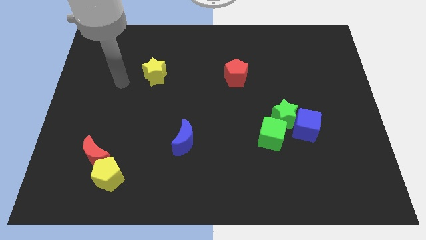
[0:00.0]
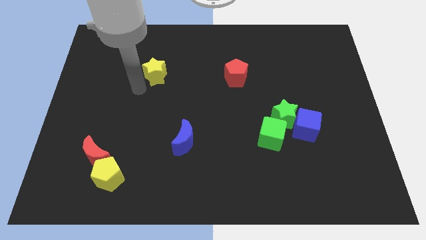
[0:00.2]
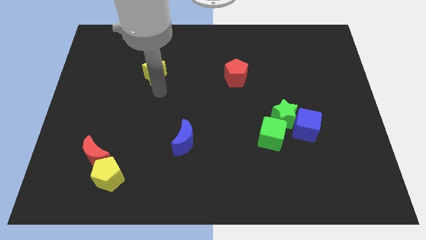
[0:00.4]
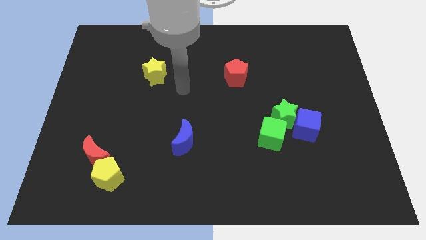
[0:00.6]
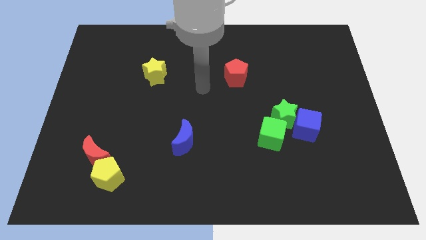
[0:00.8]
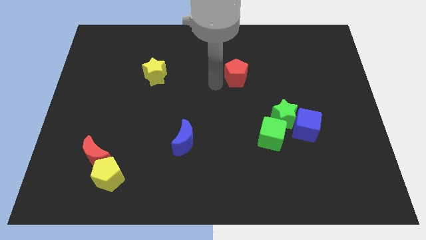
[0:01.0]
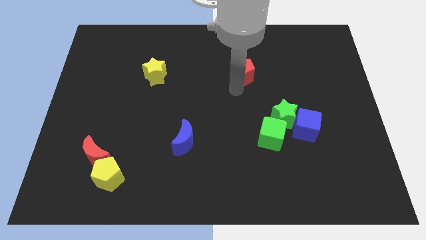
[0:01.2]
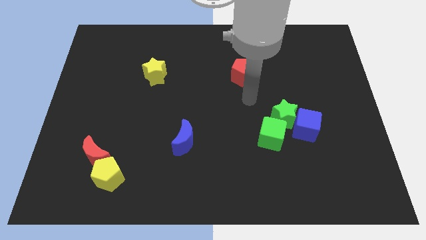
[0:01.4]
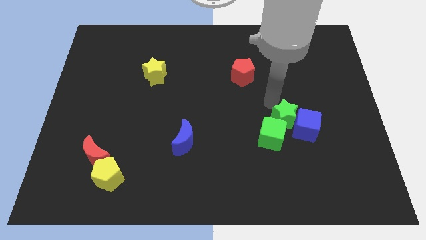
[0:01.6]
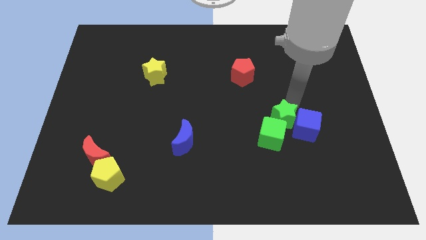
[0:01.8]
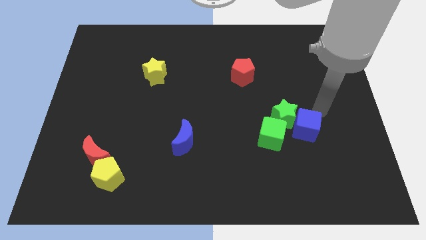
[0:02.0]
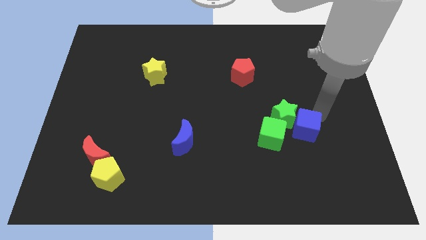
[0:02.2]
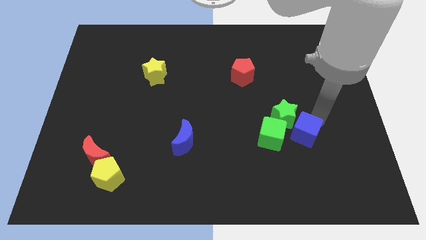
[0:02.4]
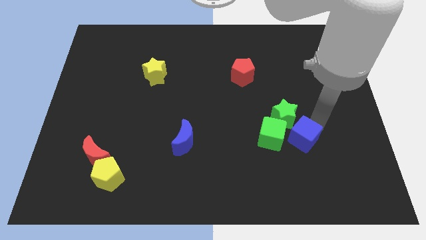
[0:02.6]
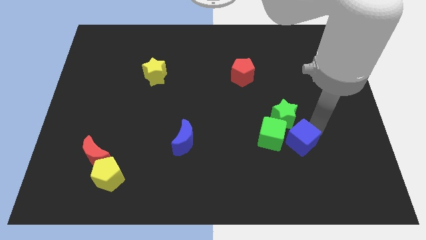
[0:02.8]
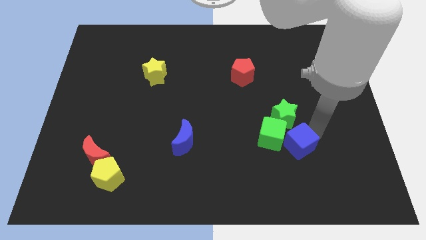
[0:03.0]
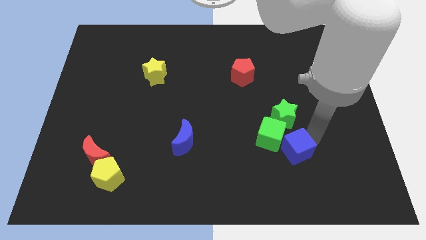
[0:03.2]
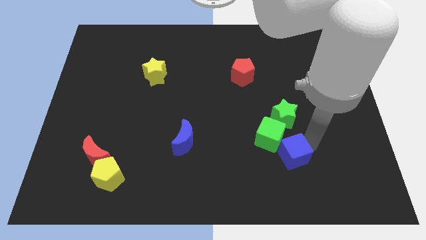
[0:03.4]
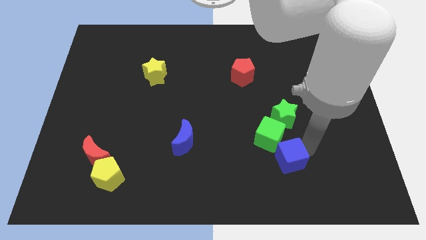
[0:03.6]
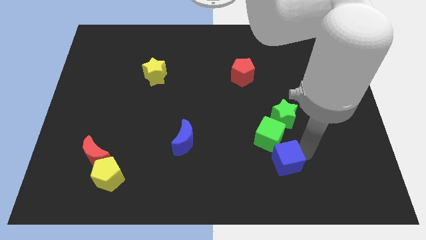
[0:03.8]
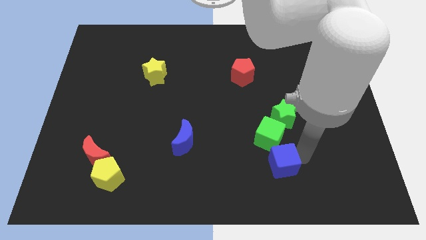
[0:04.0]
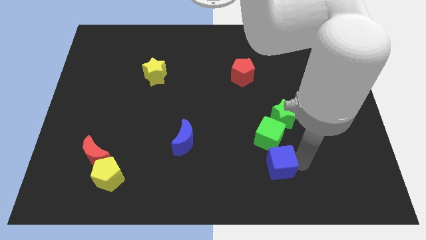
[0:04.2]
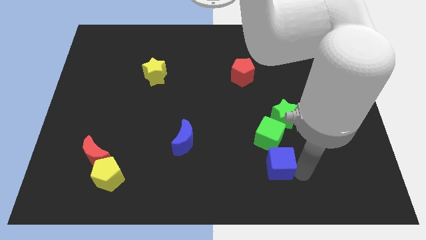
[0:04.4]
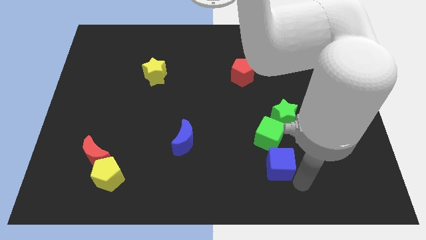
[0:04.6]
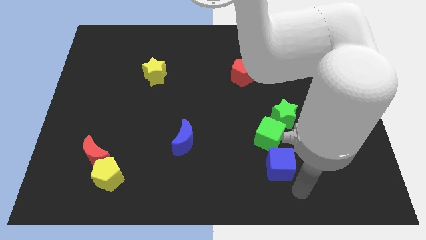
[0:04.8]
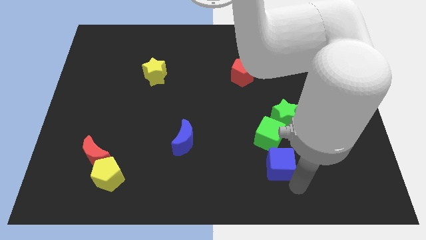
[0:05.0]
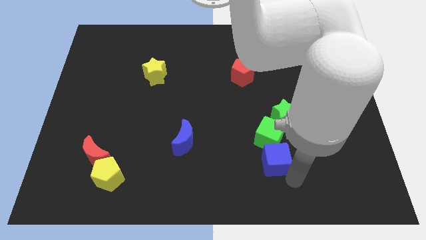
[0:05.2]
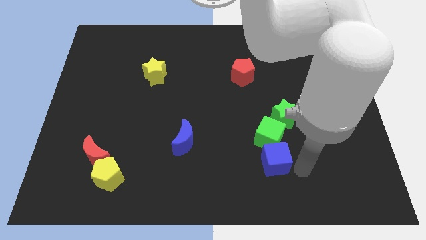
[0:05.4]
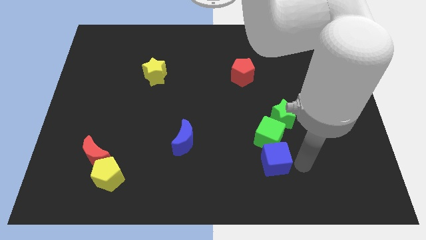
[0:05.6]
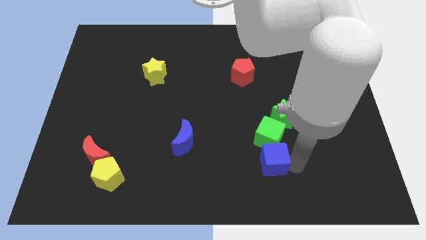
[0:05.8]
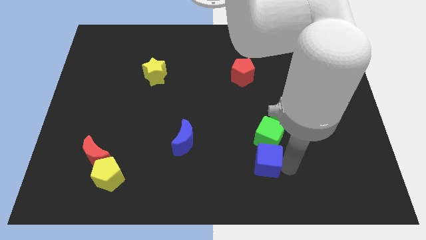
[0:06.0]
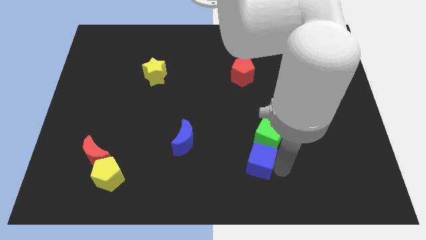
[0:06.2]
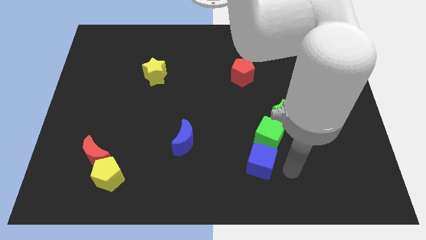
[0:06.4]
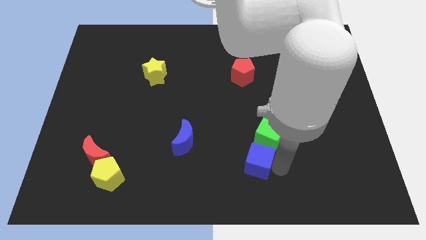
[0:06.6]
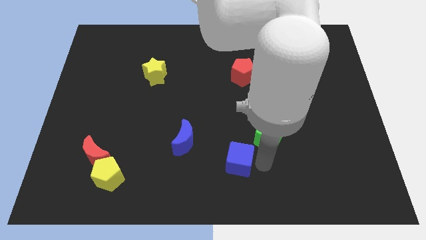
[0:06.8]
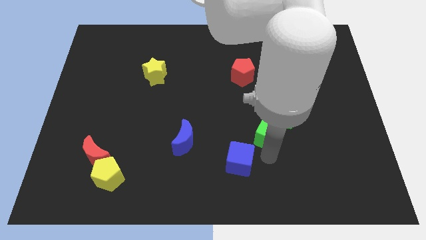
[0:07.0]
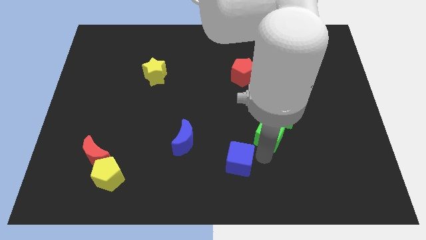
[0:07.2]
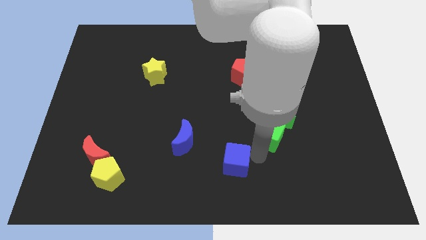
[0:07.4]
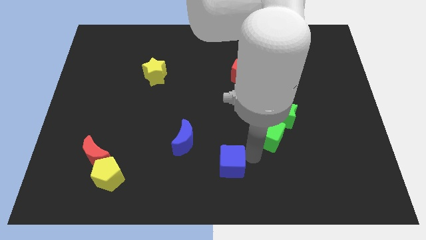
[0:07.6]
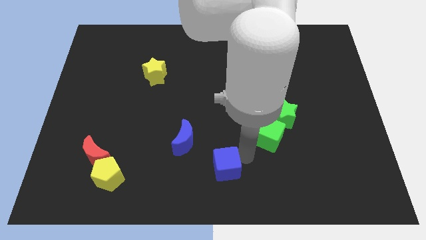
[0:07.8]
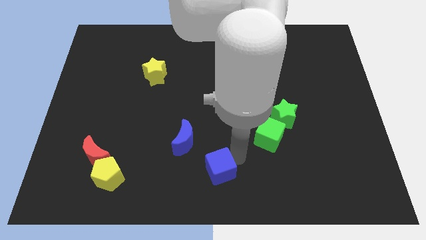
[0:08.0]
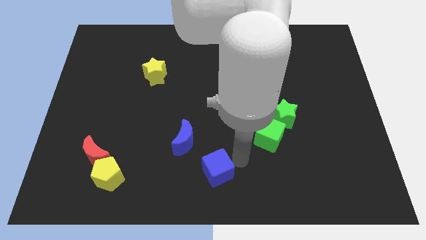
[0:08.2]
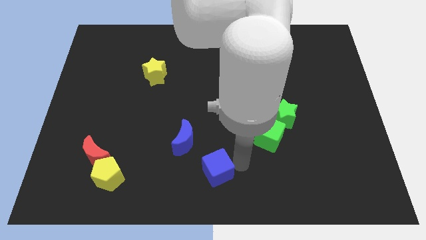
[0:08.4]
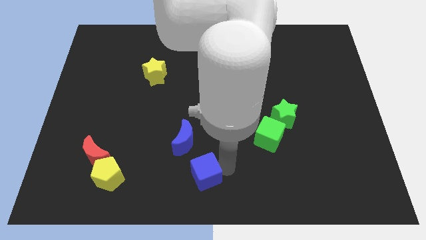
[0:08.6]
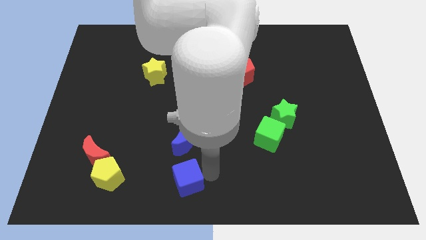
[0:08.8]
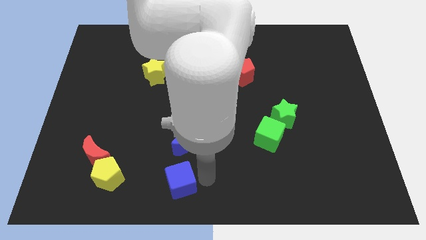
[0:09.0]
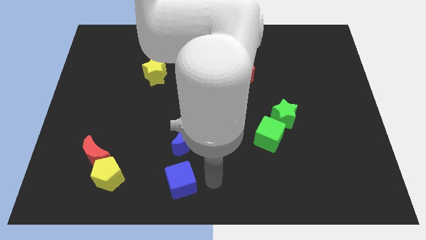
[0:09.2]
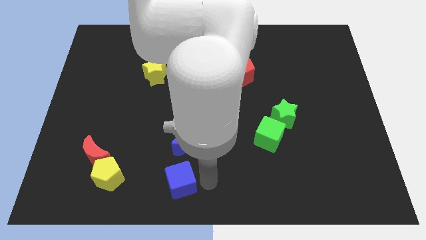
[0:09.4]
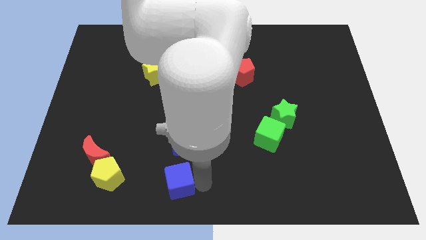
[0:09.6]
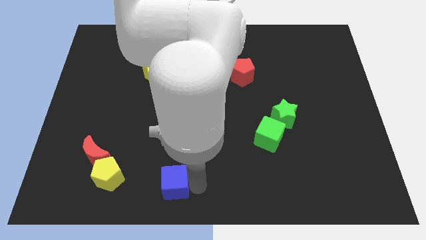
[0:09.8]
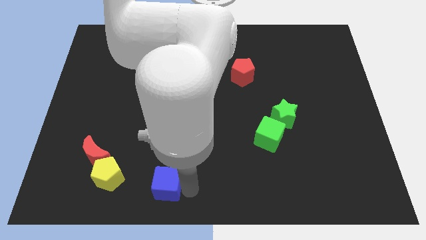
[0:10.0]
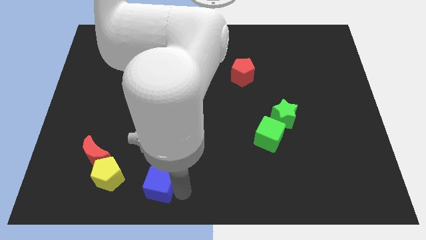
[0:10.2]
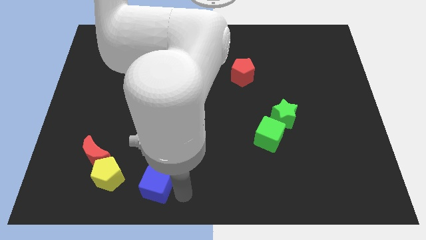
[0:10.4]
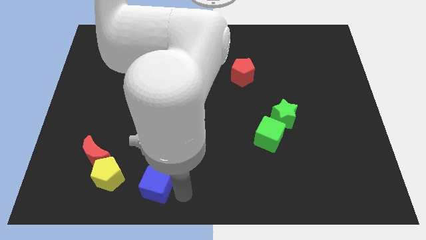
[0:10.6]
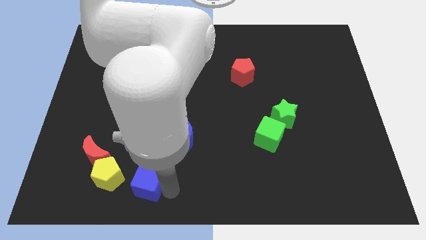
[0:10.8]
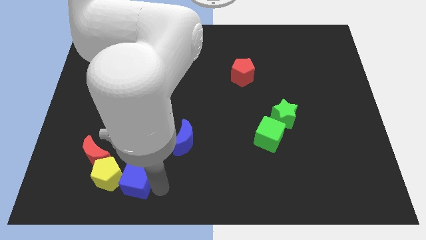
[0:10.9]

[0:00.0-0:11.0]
put the blue cube next to the yellow pentagon

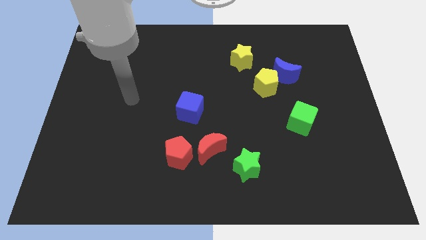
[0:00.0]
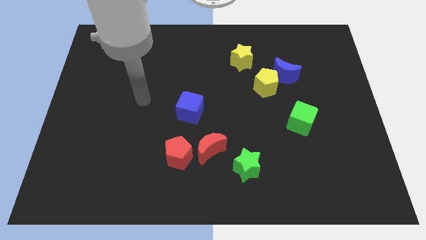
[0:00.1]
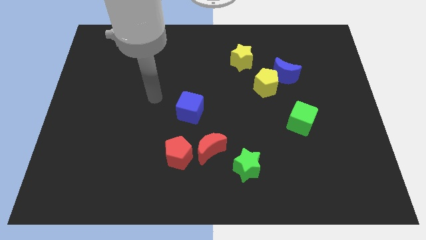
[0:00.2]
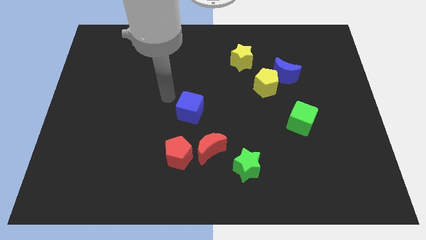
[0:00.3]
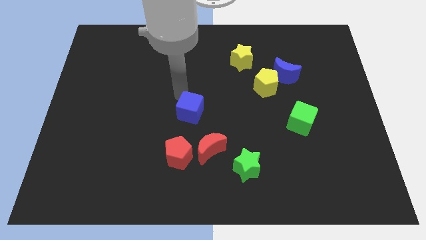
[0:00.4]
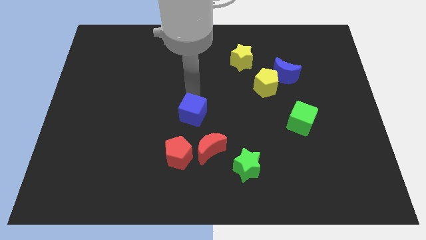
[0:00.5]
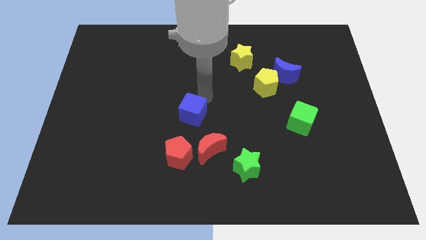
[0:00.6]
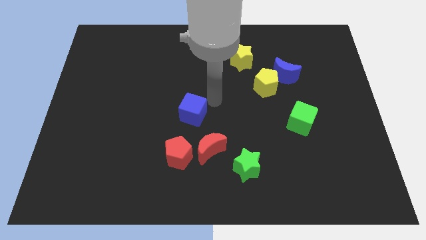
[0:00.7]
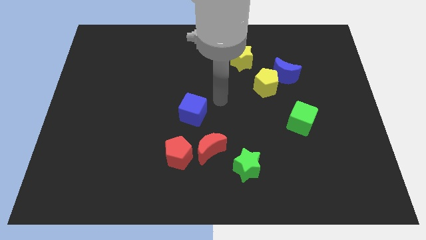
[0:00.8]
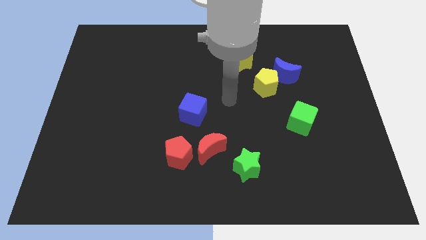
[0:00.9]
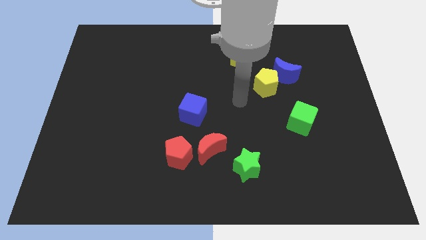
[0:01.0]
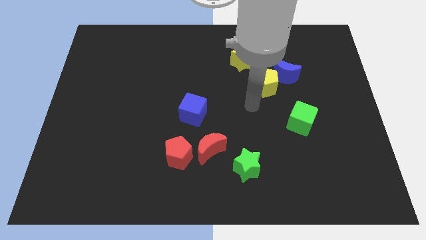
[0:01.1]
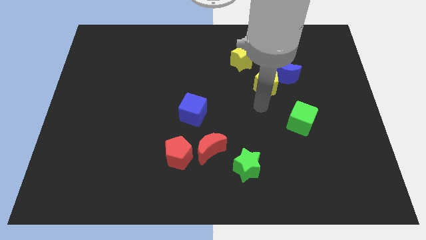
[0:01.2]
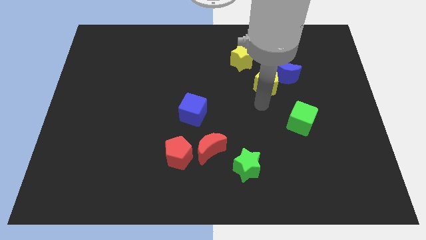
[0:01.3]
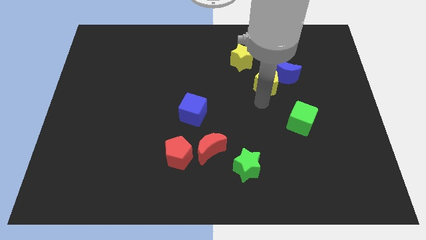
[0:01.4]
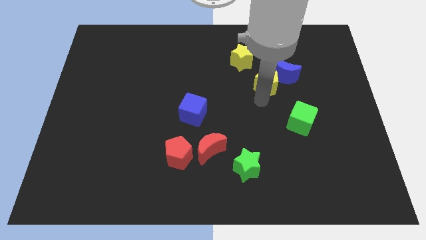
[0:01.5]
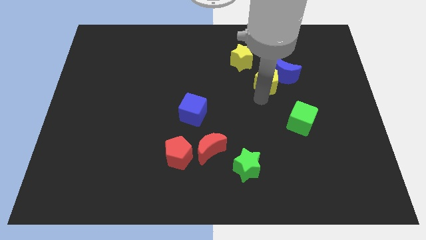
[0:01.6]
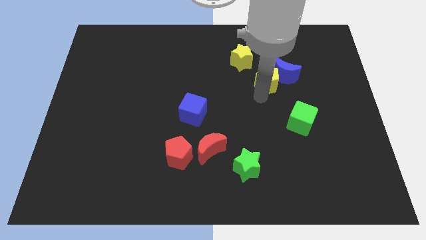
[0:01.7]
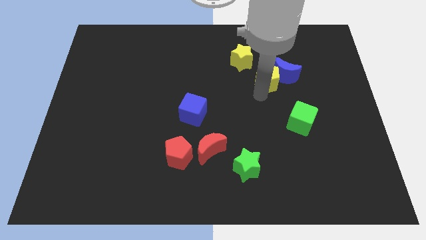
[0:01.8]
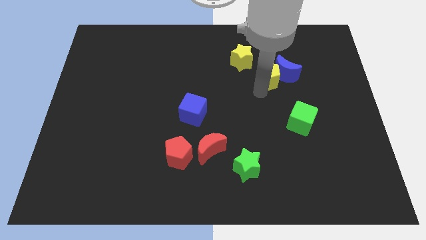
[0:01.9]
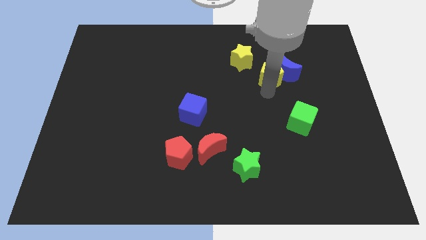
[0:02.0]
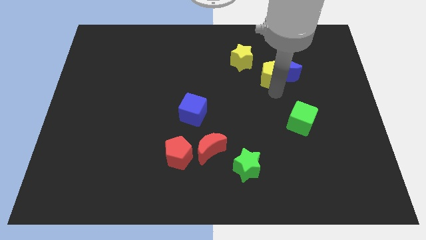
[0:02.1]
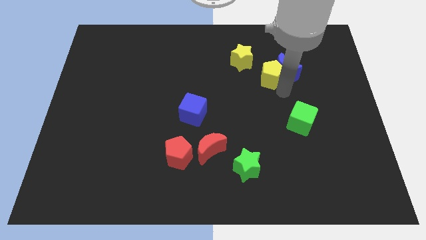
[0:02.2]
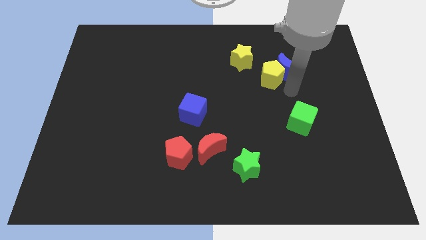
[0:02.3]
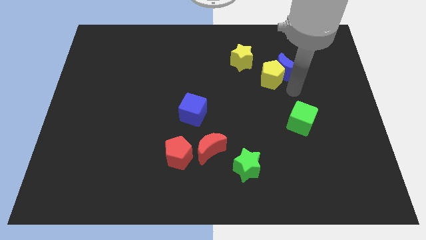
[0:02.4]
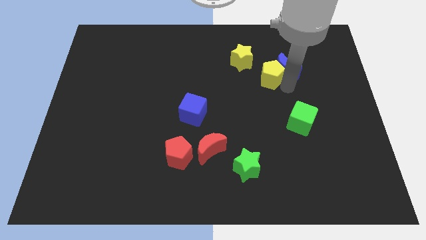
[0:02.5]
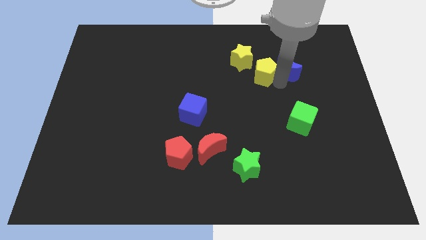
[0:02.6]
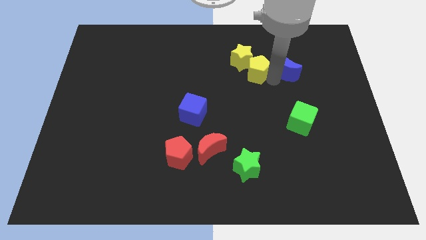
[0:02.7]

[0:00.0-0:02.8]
slide the yellow pentagon next to the yellow star
